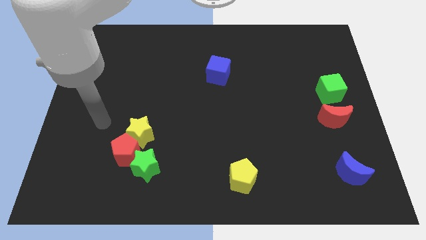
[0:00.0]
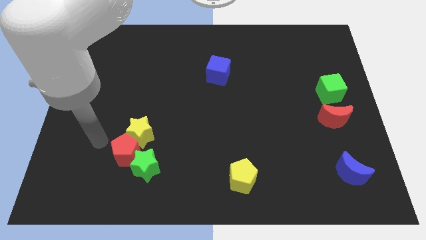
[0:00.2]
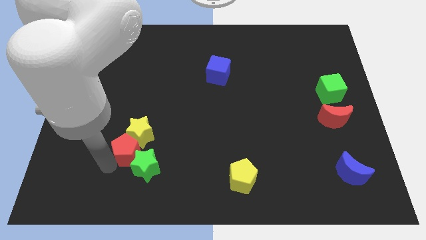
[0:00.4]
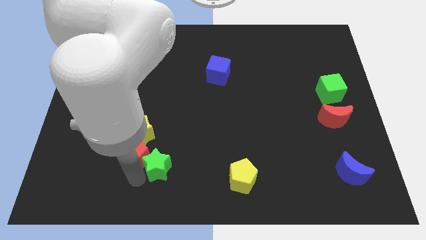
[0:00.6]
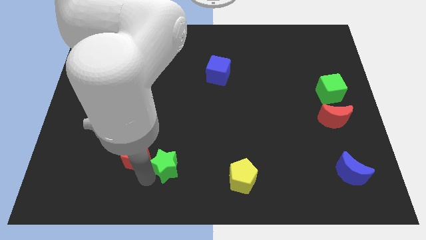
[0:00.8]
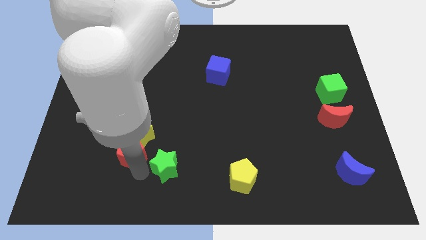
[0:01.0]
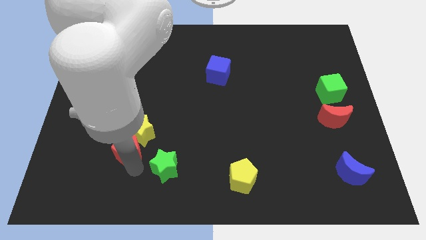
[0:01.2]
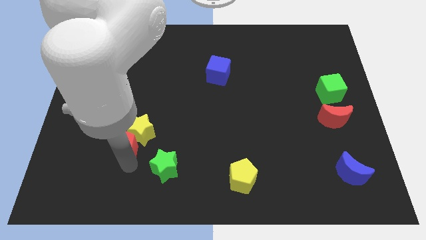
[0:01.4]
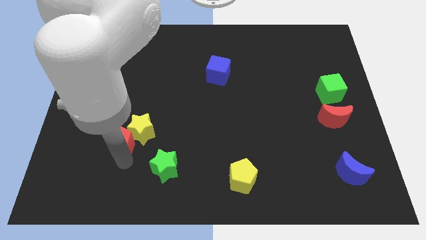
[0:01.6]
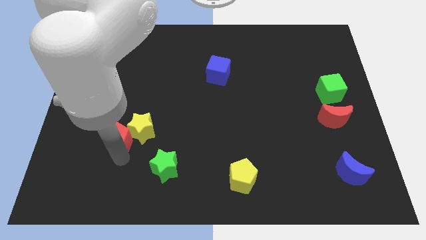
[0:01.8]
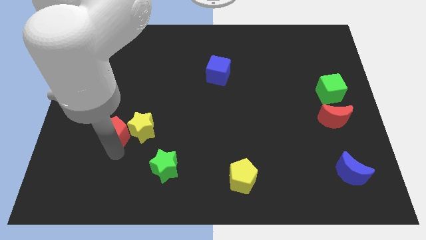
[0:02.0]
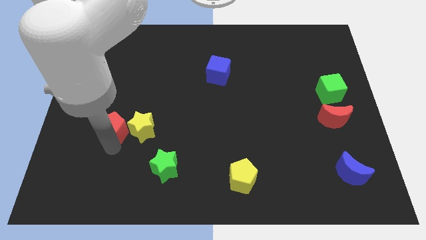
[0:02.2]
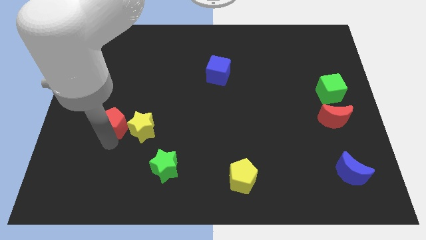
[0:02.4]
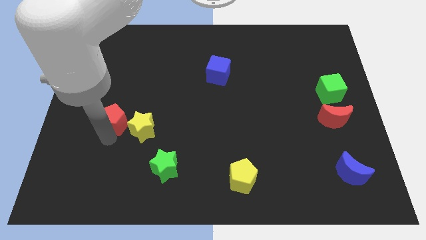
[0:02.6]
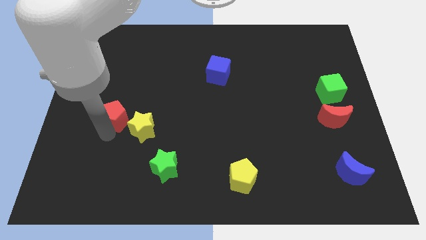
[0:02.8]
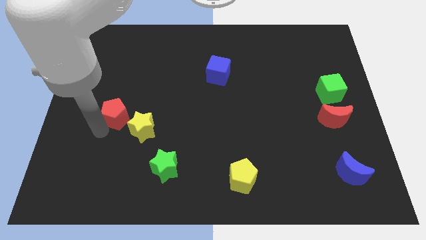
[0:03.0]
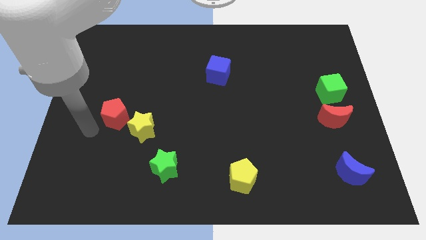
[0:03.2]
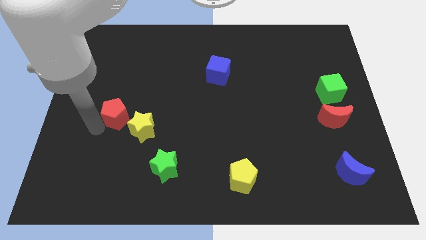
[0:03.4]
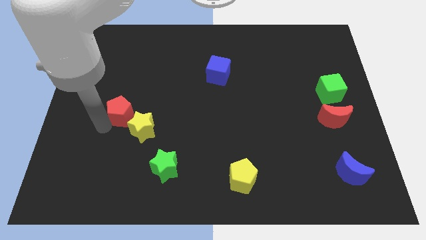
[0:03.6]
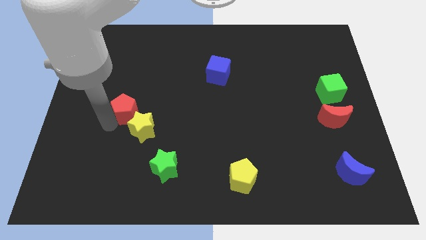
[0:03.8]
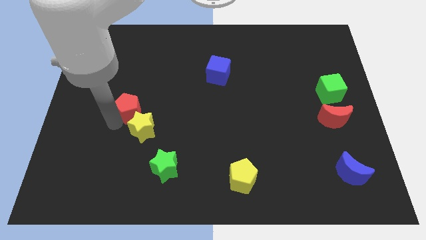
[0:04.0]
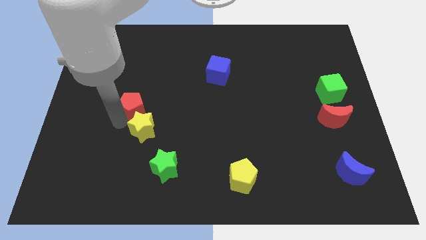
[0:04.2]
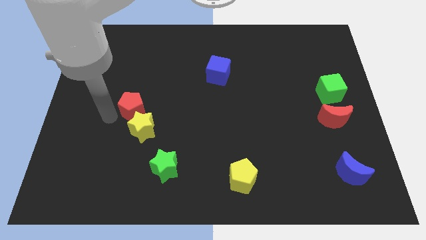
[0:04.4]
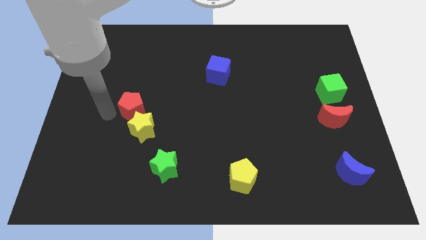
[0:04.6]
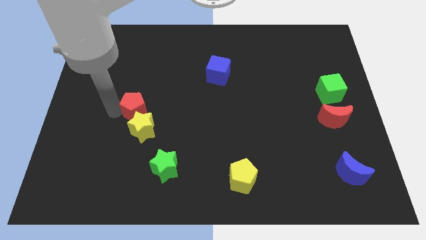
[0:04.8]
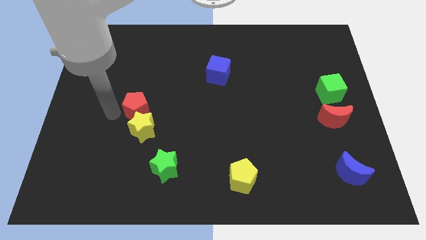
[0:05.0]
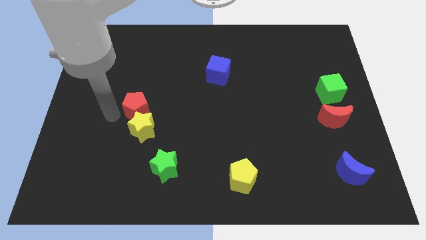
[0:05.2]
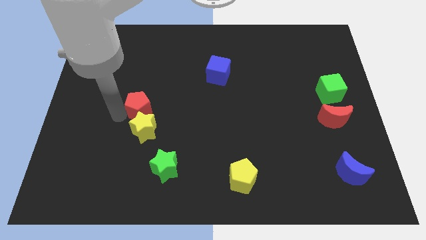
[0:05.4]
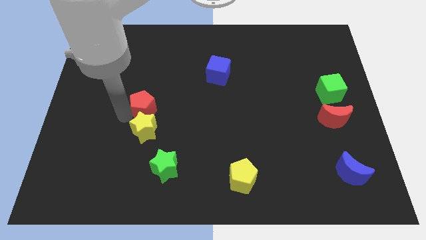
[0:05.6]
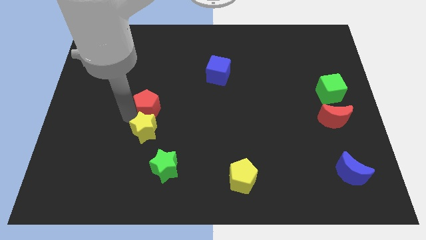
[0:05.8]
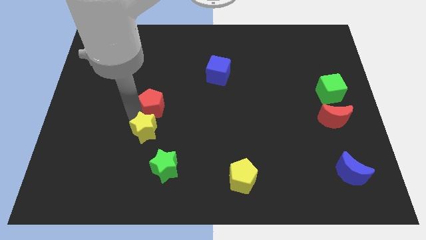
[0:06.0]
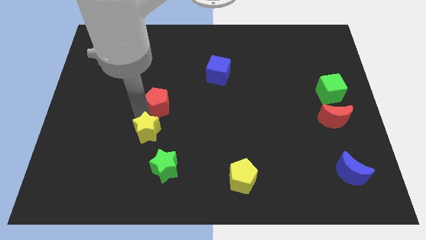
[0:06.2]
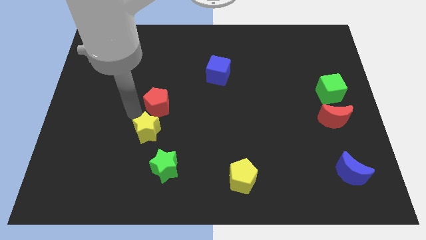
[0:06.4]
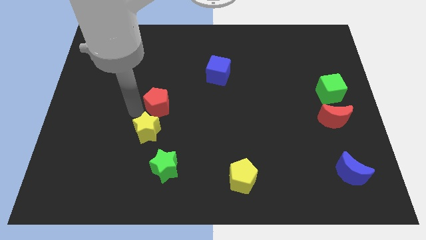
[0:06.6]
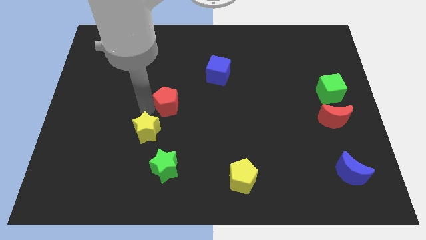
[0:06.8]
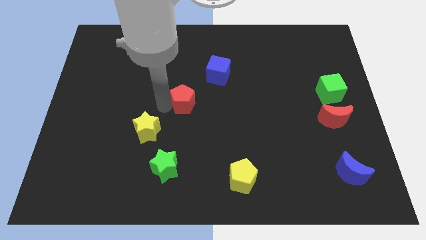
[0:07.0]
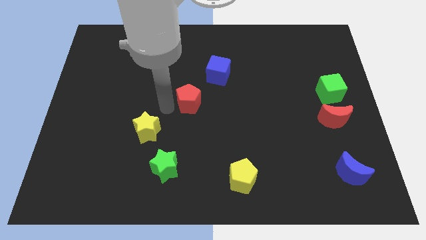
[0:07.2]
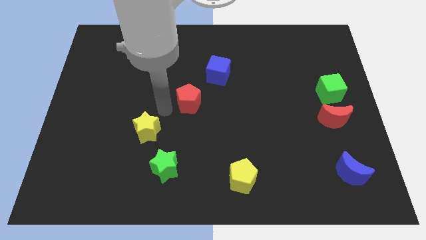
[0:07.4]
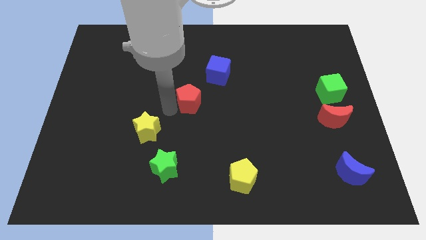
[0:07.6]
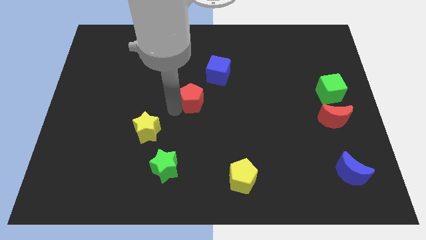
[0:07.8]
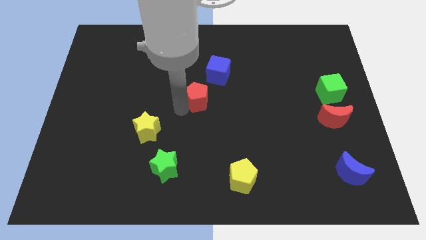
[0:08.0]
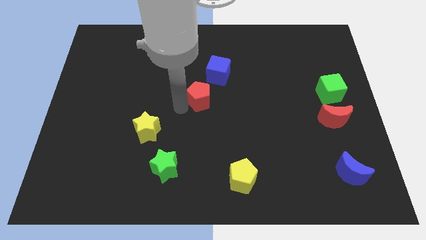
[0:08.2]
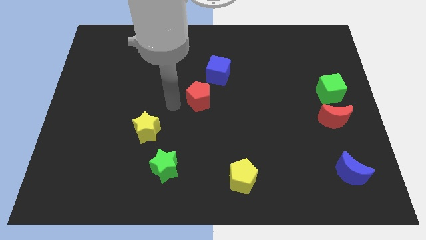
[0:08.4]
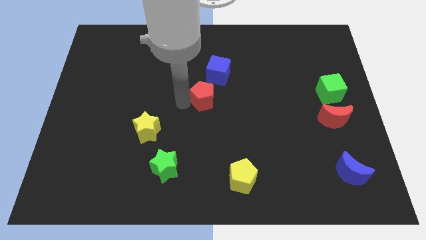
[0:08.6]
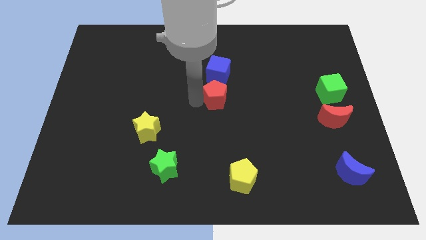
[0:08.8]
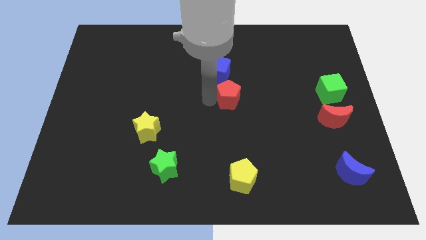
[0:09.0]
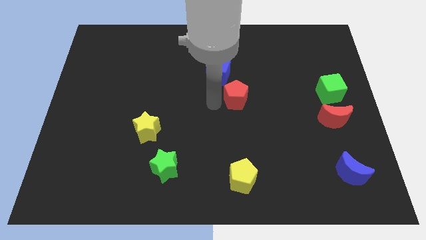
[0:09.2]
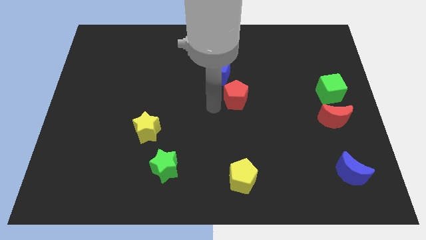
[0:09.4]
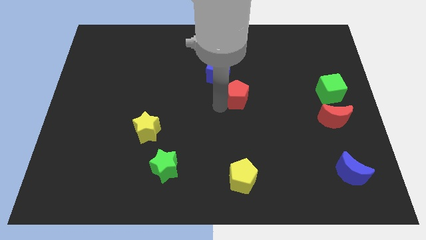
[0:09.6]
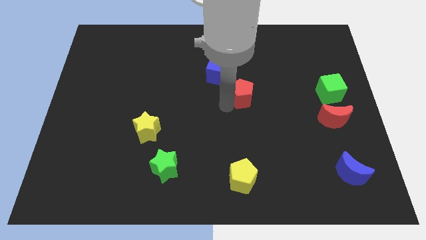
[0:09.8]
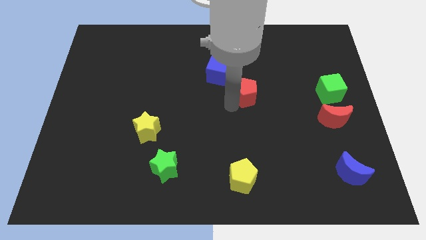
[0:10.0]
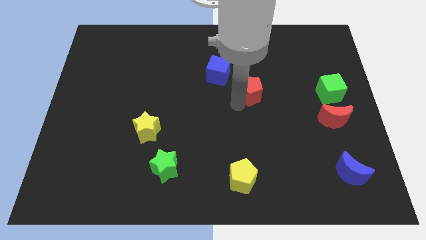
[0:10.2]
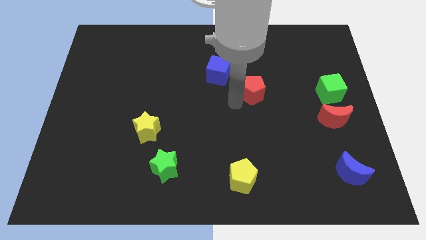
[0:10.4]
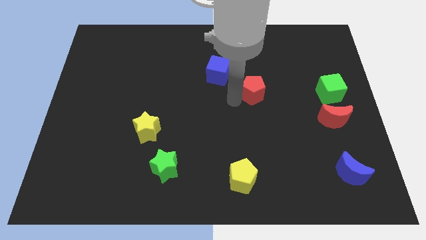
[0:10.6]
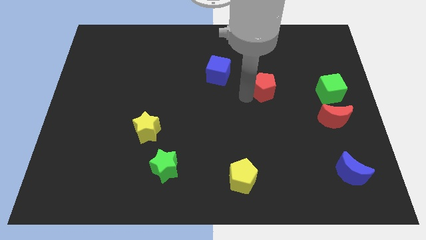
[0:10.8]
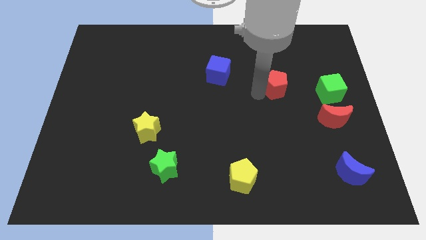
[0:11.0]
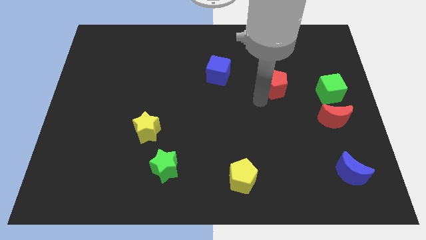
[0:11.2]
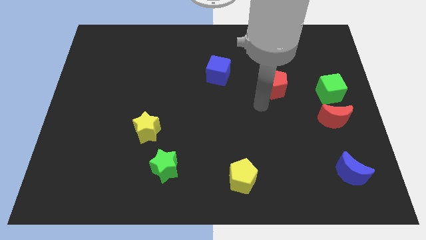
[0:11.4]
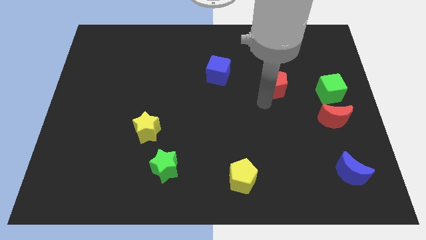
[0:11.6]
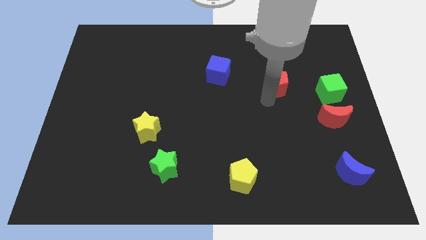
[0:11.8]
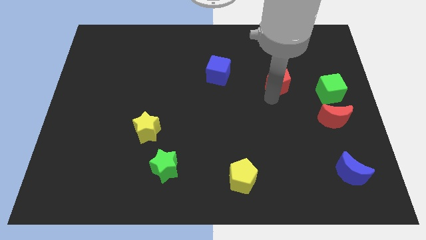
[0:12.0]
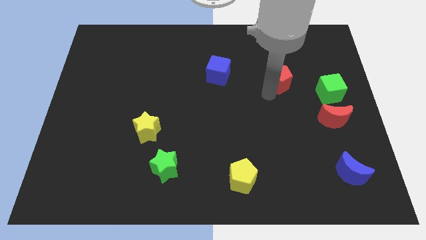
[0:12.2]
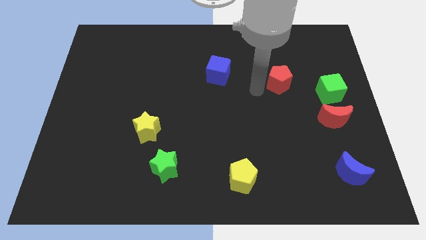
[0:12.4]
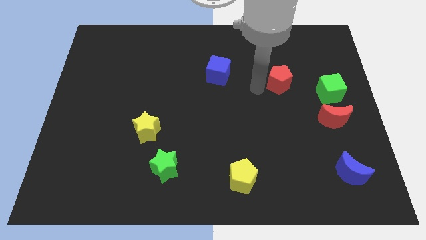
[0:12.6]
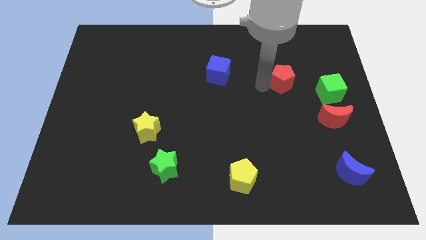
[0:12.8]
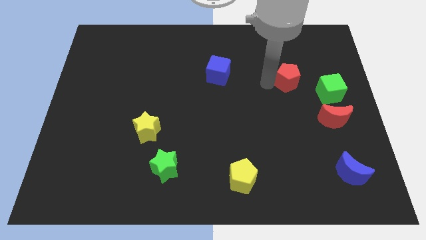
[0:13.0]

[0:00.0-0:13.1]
move the red pentagon to the top left side of the green cube
